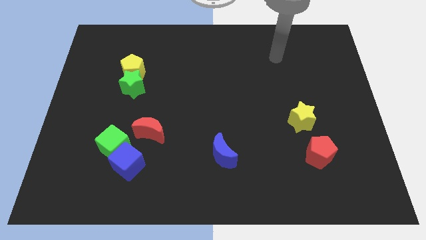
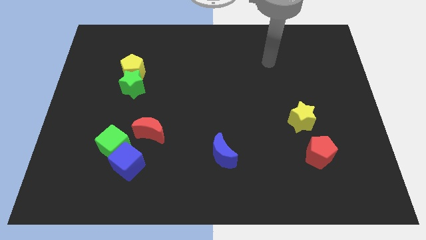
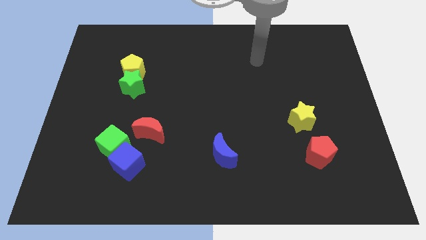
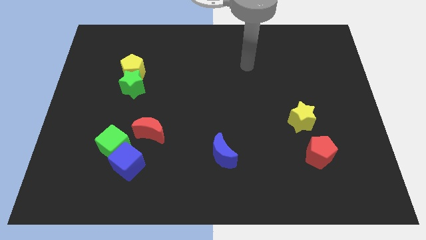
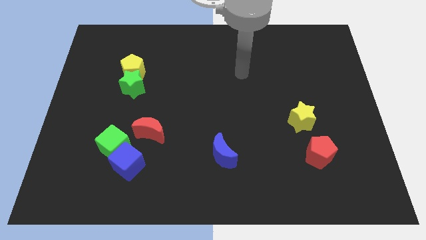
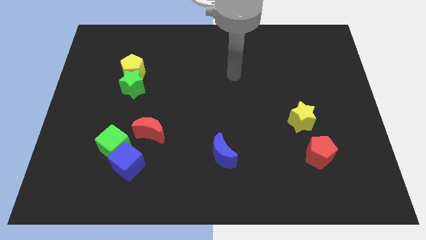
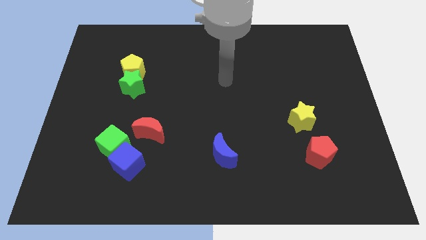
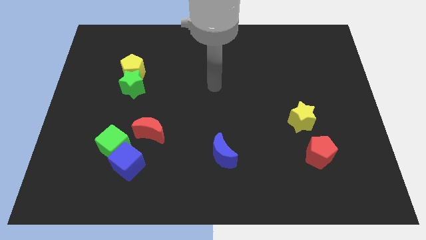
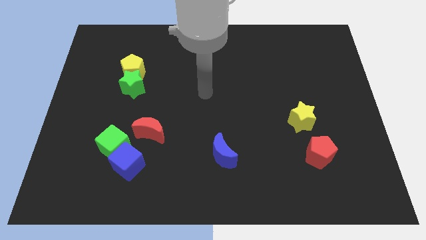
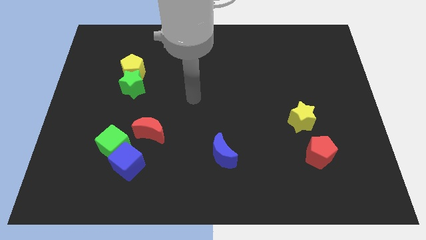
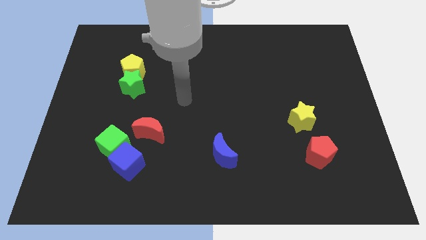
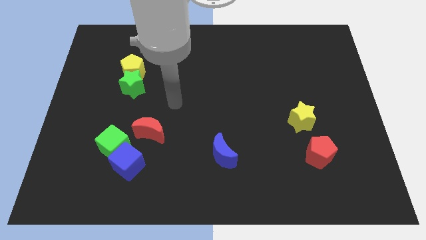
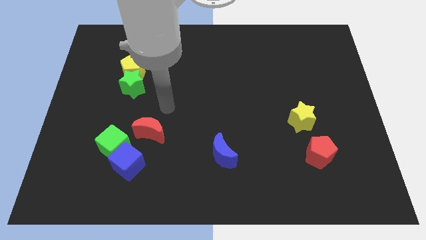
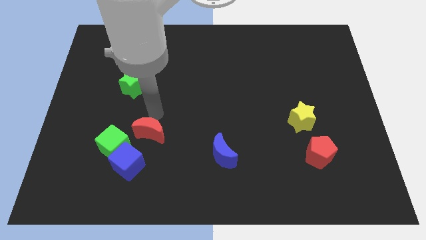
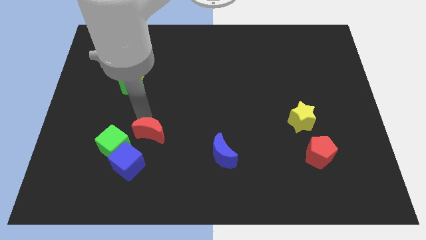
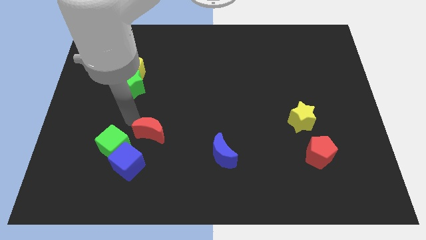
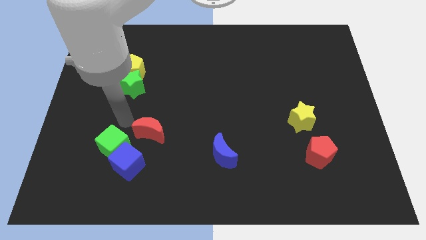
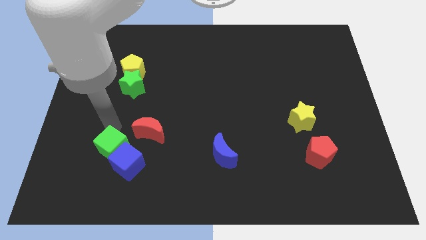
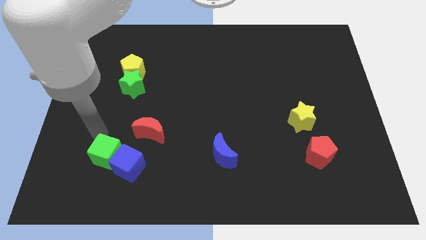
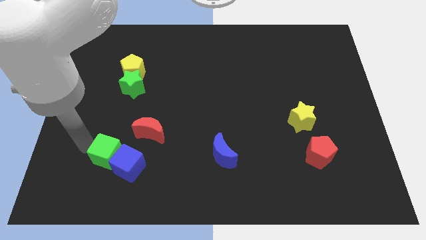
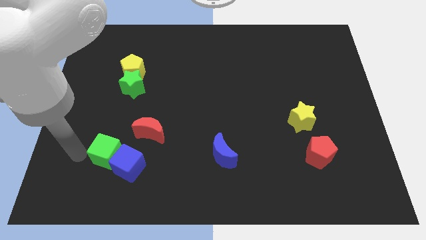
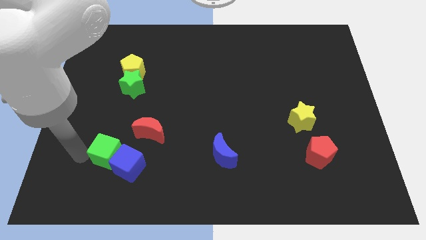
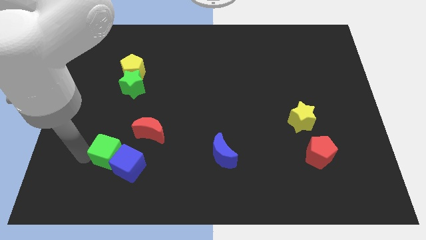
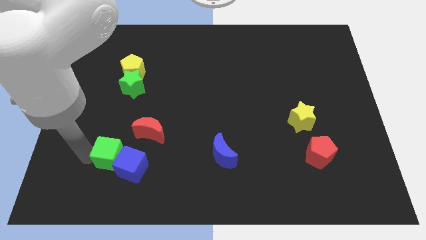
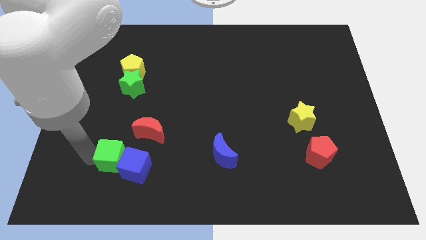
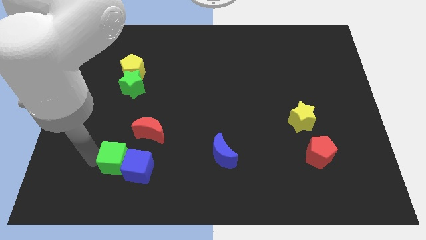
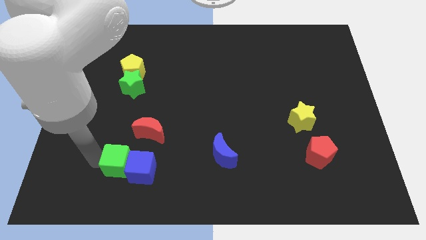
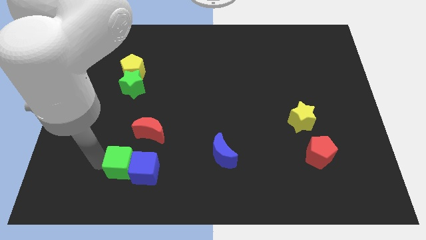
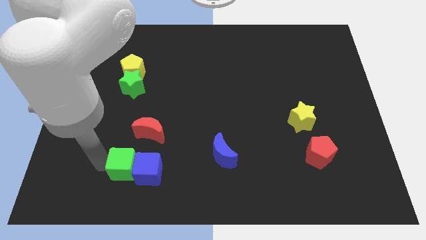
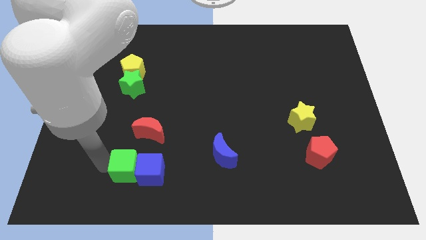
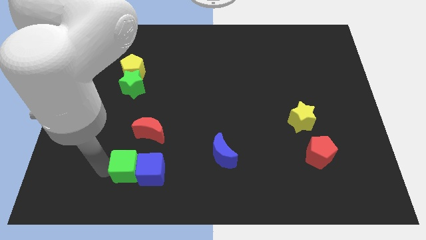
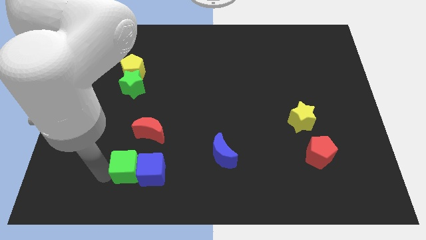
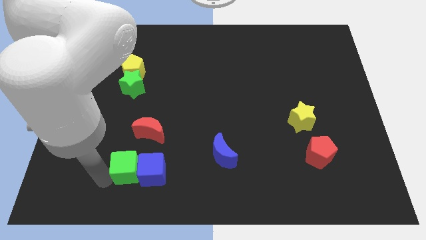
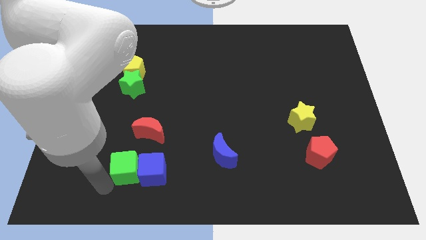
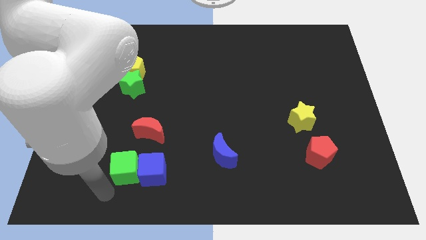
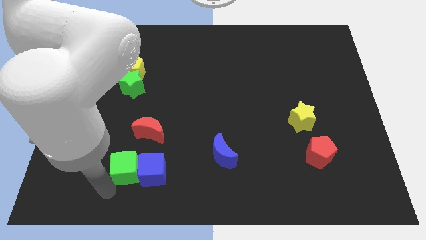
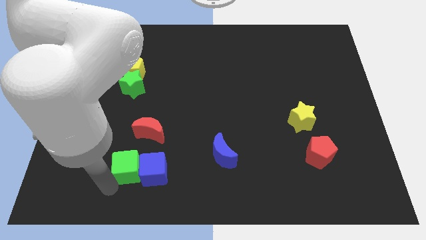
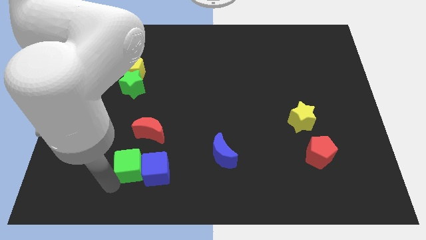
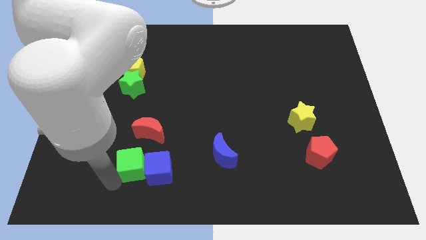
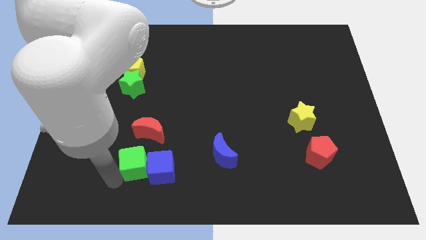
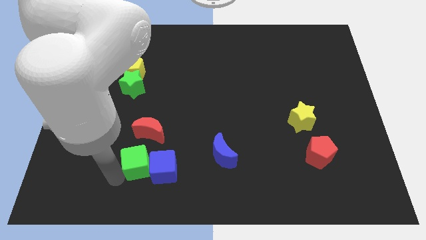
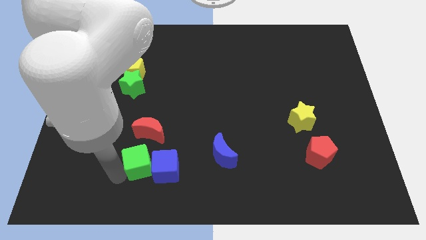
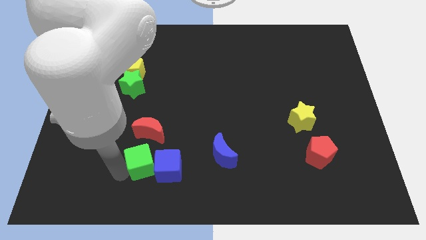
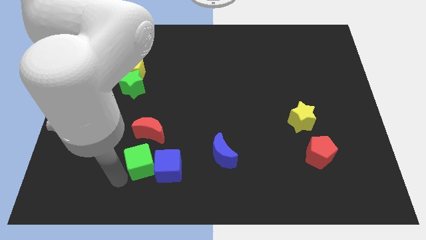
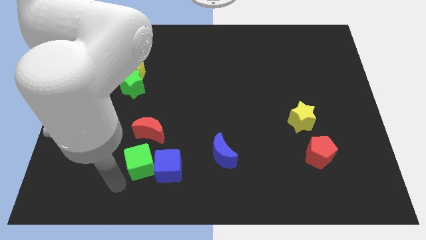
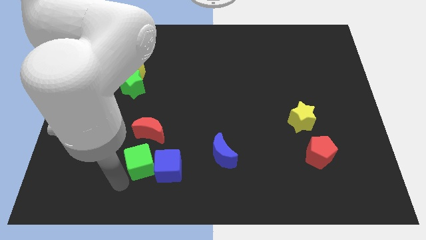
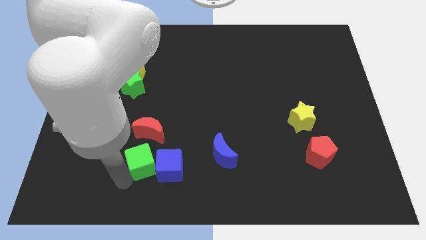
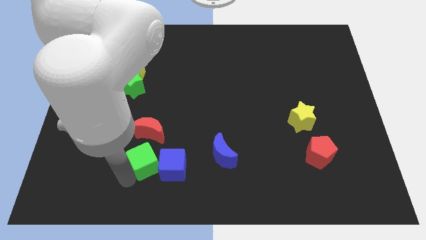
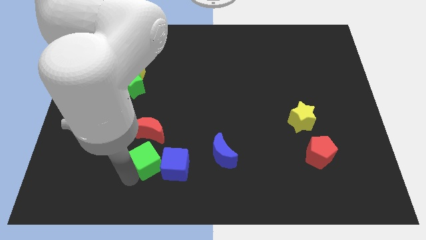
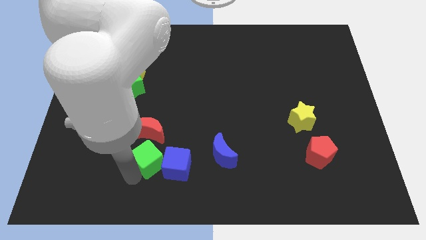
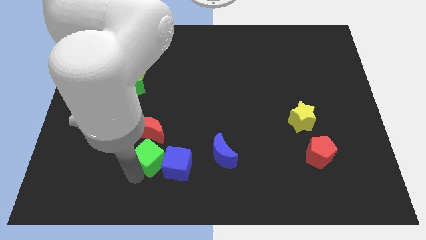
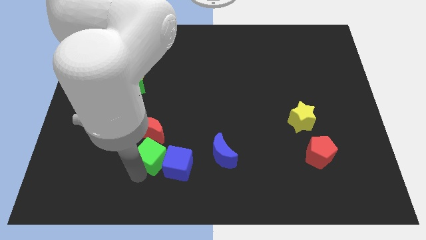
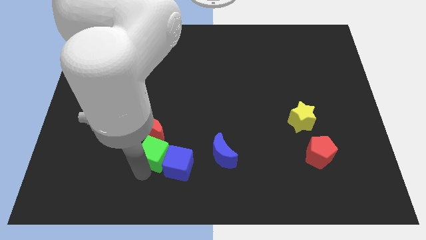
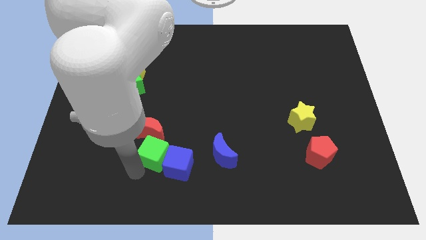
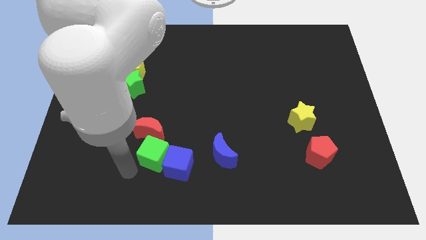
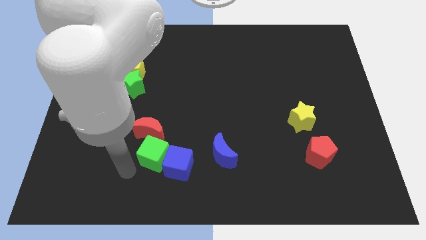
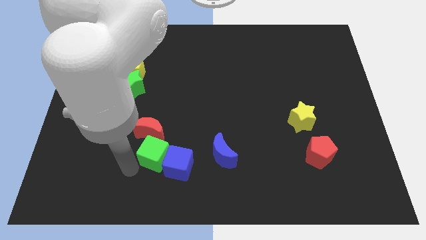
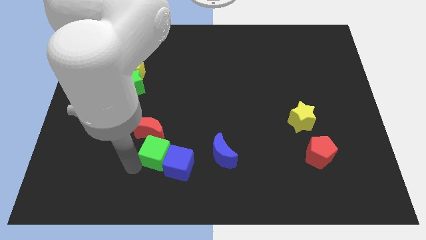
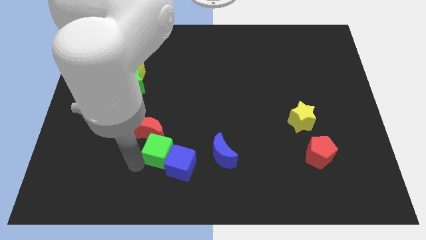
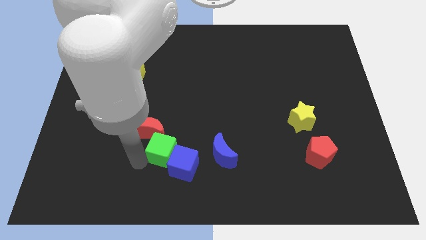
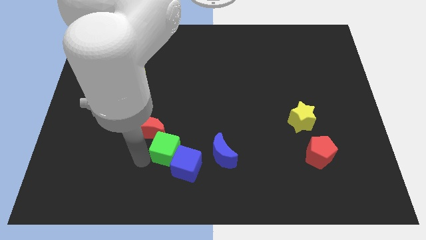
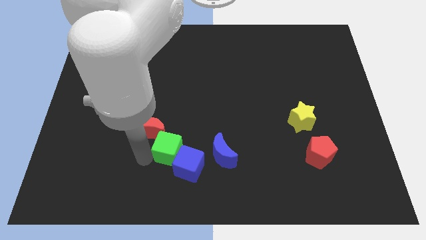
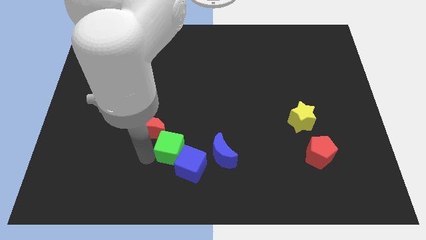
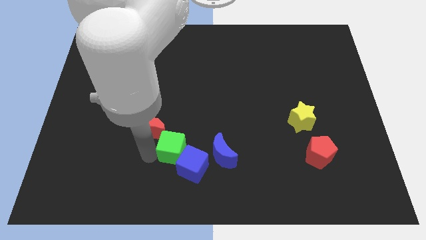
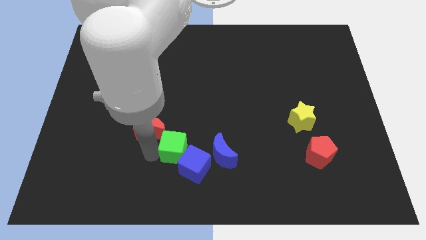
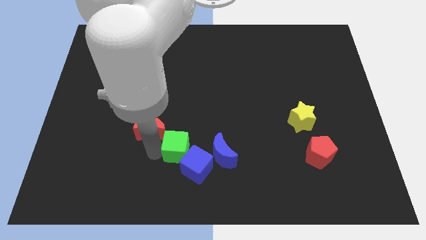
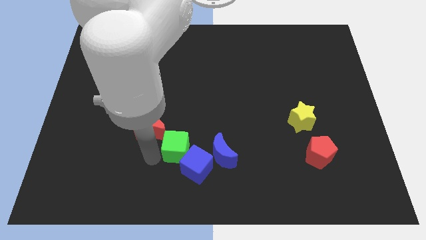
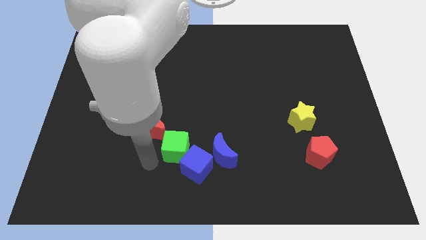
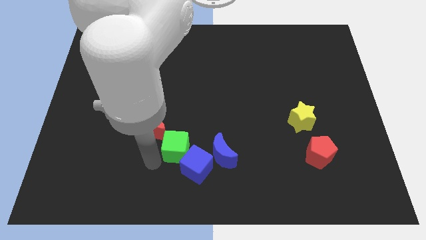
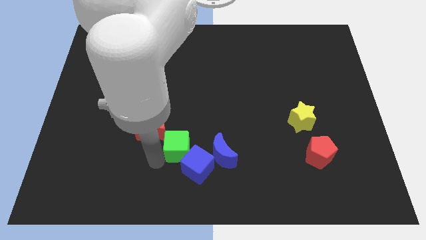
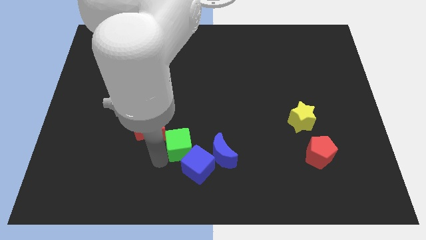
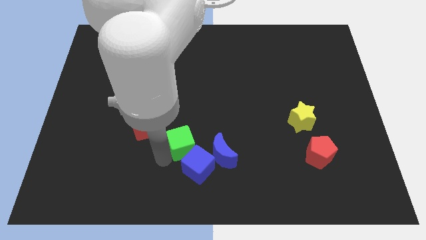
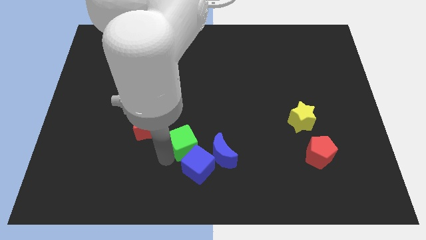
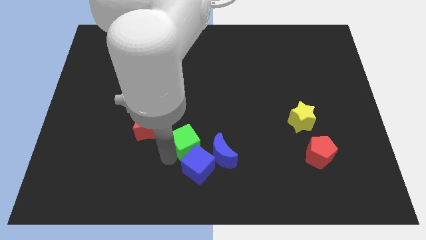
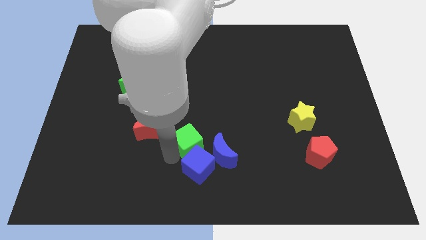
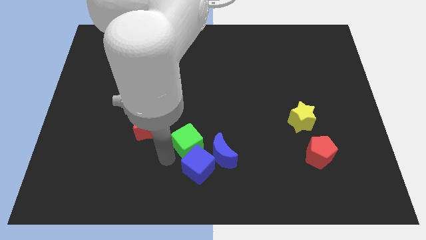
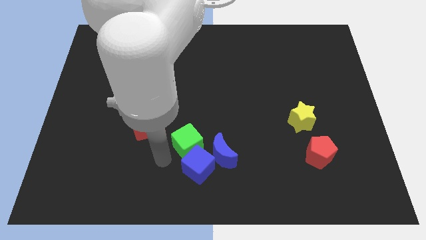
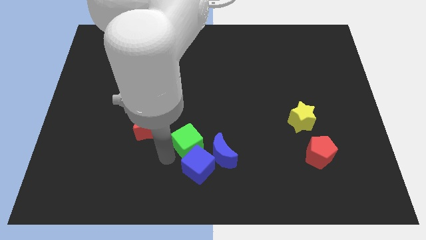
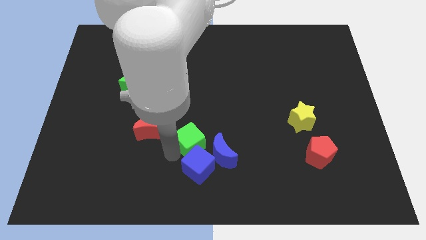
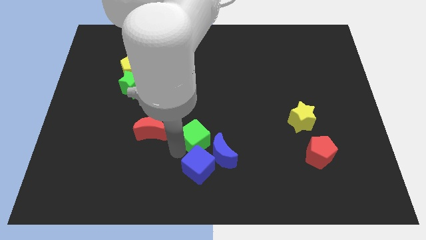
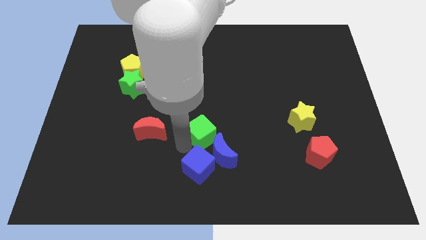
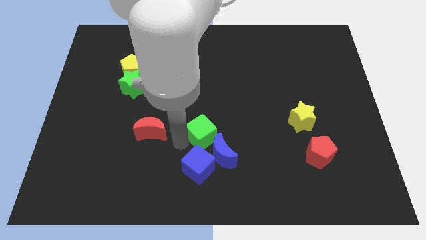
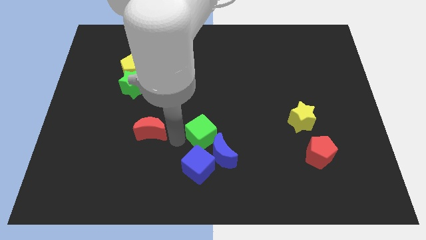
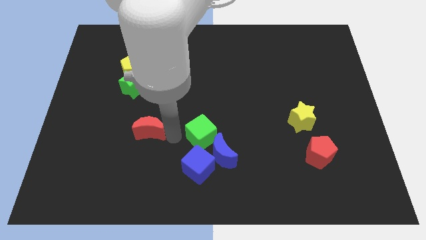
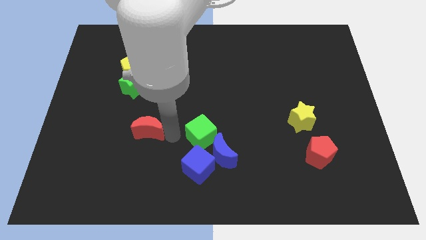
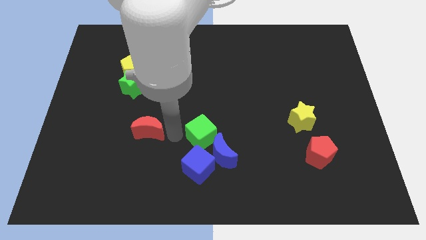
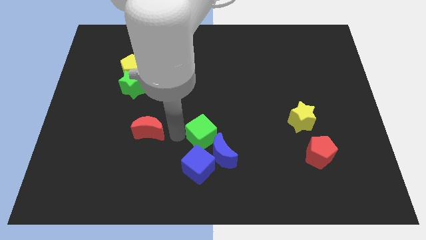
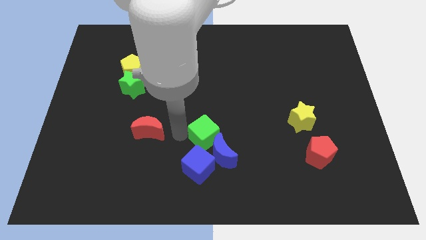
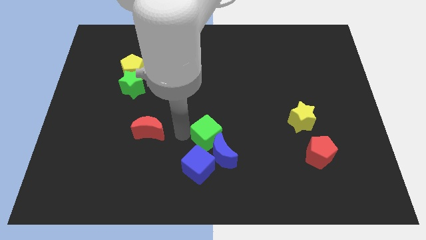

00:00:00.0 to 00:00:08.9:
slide the green cube right
